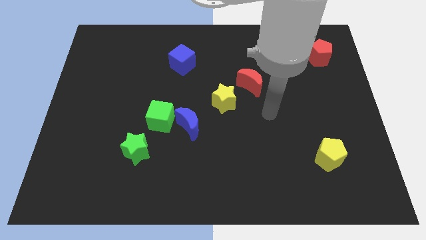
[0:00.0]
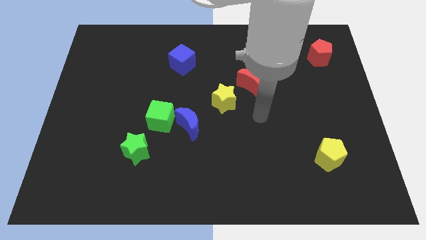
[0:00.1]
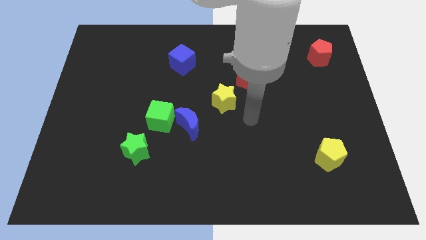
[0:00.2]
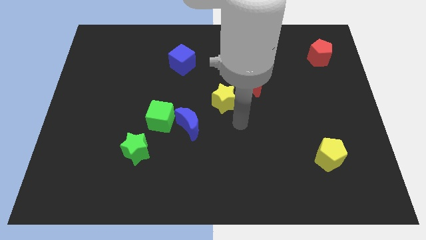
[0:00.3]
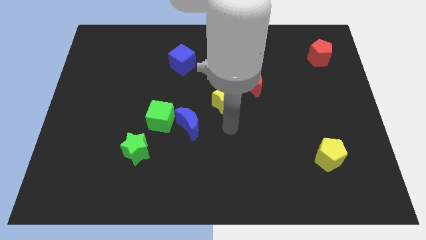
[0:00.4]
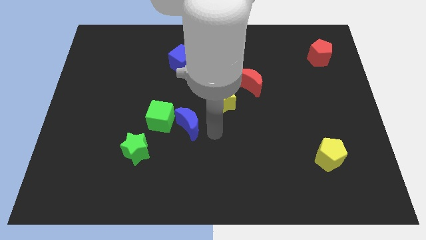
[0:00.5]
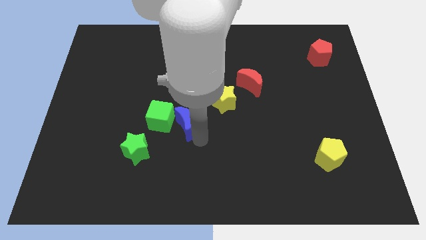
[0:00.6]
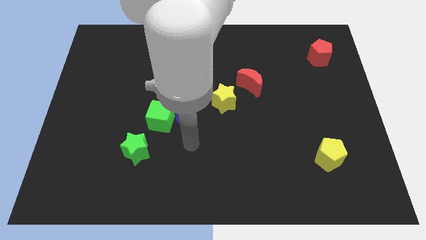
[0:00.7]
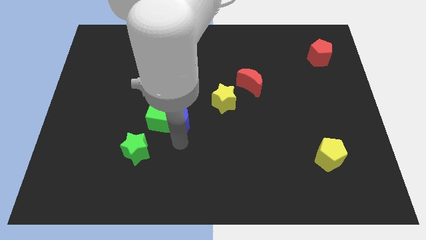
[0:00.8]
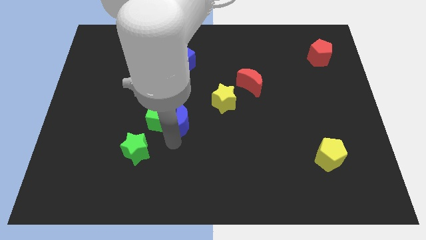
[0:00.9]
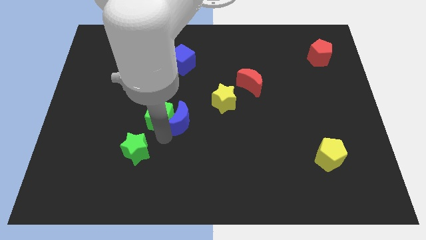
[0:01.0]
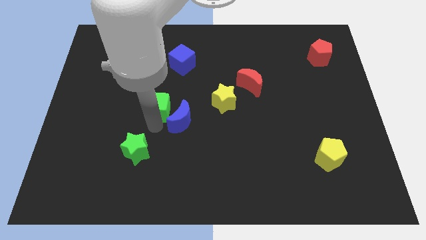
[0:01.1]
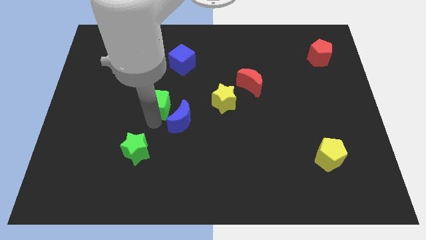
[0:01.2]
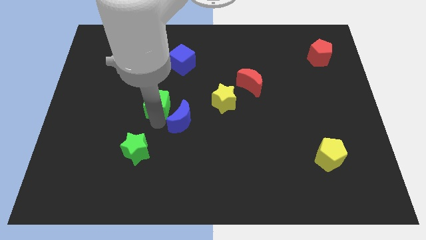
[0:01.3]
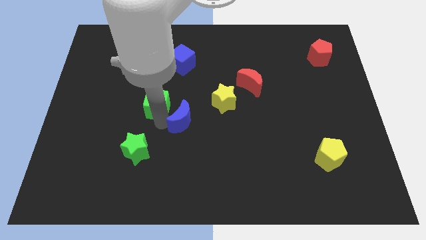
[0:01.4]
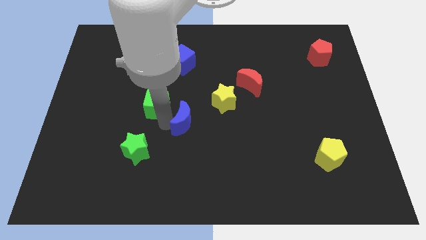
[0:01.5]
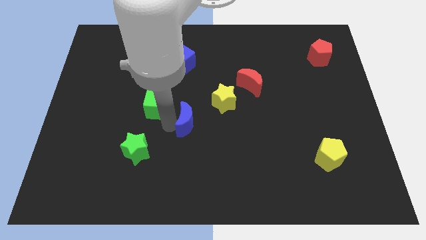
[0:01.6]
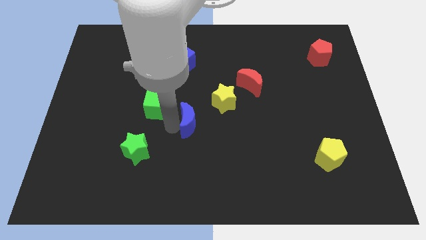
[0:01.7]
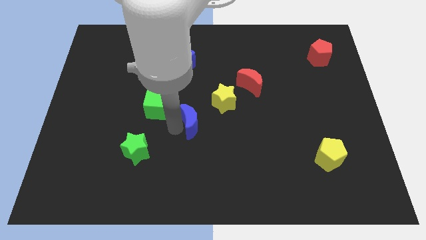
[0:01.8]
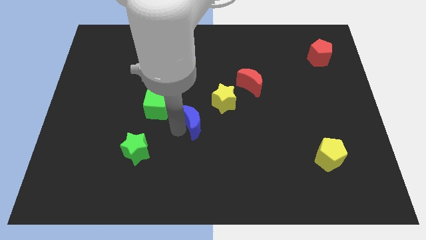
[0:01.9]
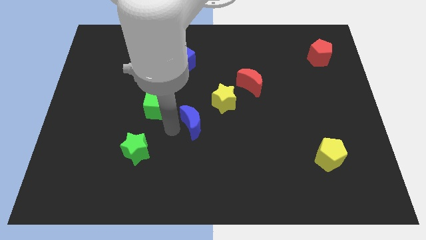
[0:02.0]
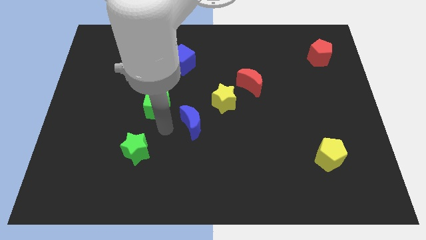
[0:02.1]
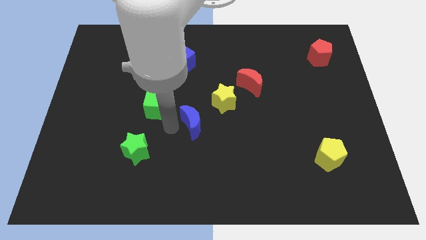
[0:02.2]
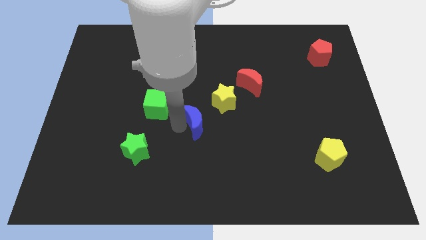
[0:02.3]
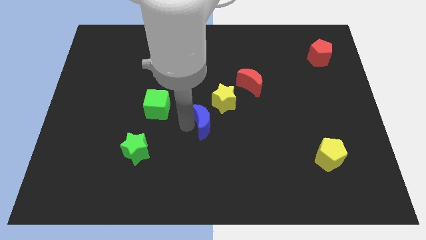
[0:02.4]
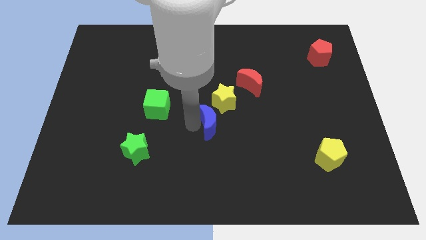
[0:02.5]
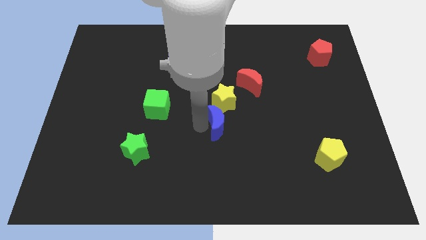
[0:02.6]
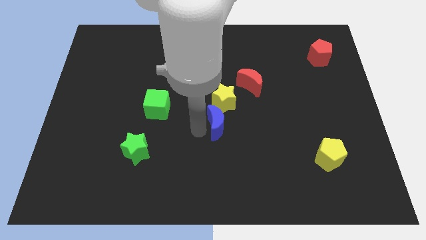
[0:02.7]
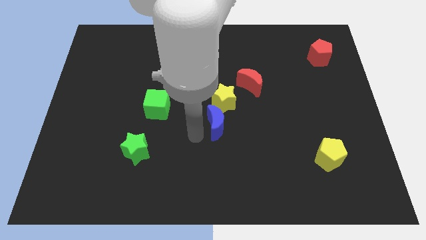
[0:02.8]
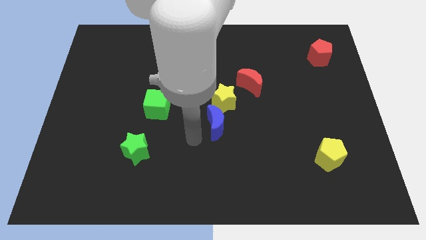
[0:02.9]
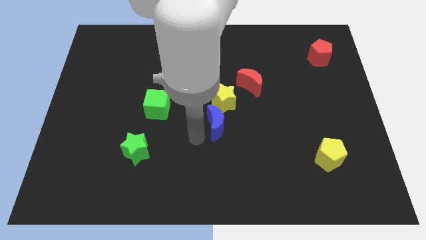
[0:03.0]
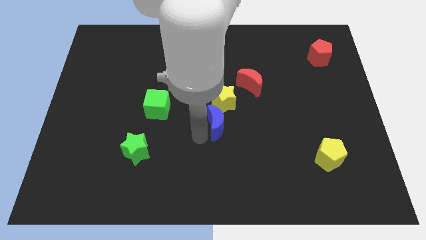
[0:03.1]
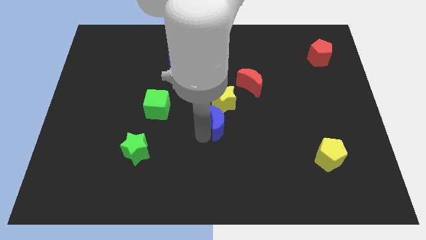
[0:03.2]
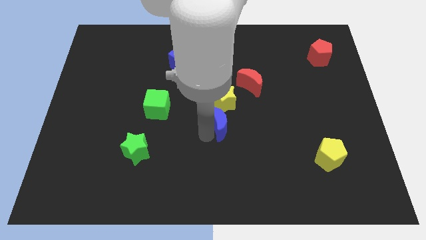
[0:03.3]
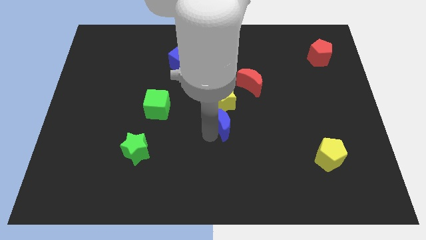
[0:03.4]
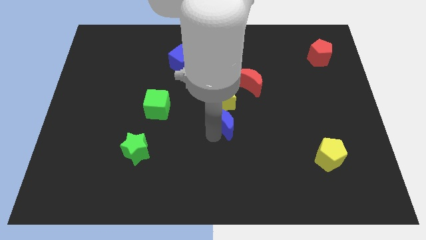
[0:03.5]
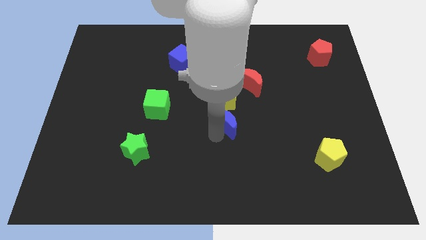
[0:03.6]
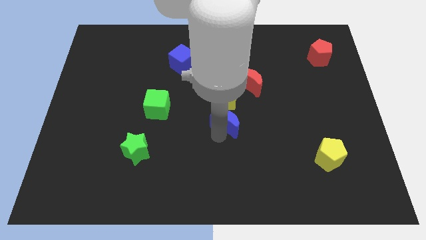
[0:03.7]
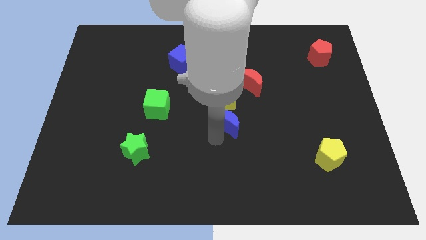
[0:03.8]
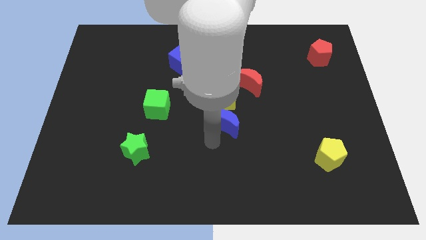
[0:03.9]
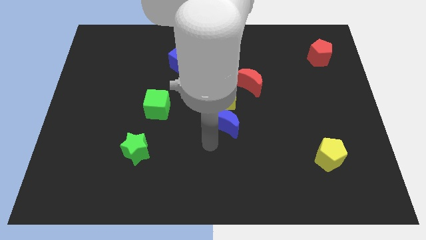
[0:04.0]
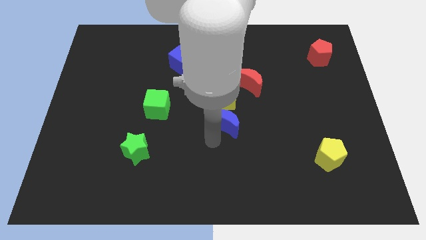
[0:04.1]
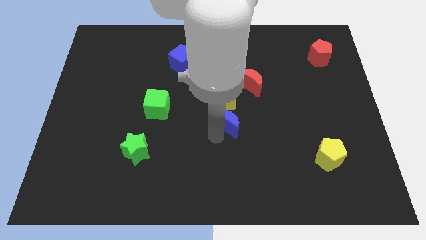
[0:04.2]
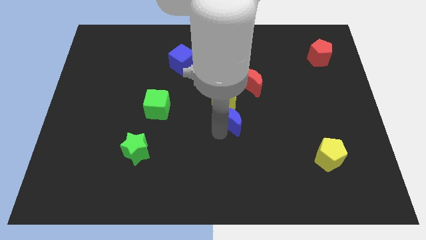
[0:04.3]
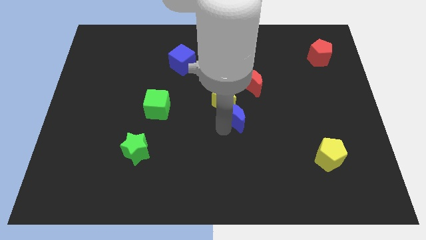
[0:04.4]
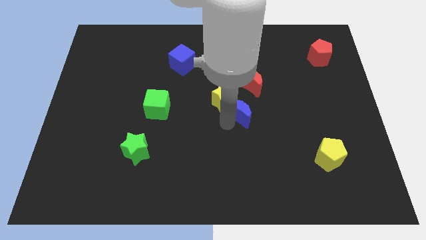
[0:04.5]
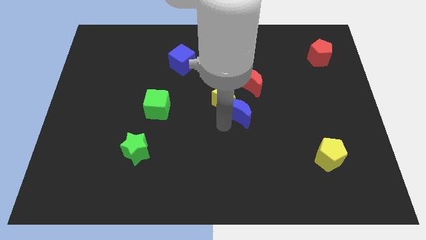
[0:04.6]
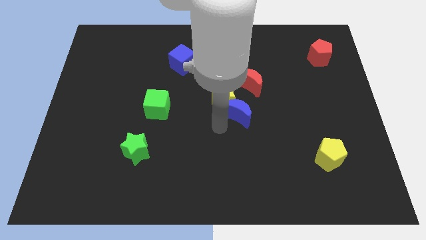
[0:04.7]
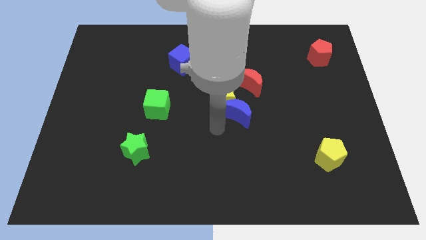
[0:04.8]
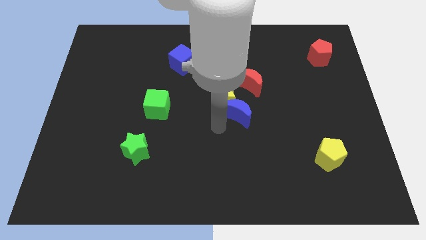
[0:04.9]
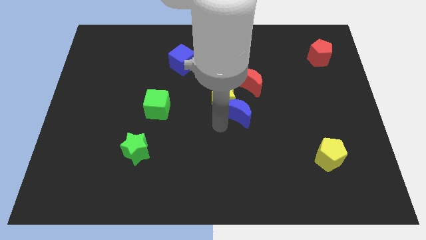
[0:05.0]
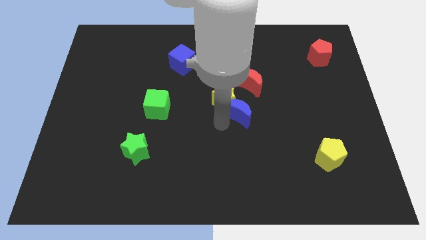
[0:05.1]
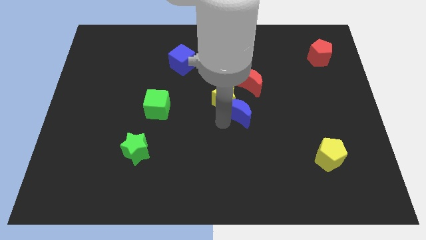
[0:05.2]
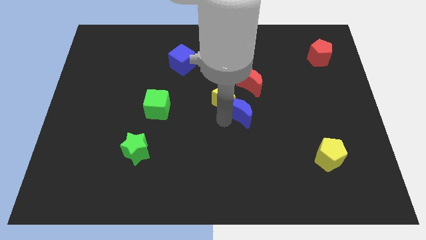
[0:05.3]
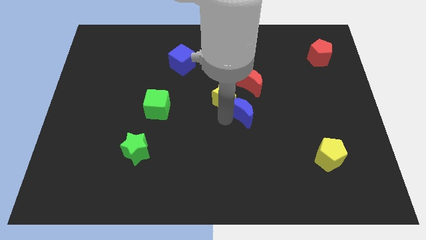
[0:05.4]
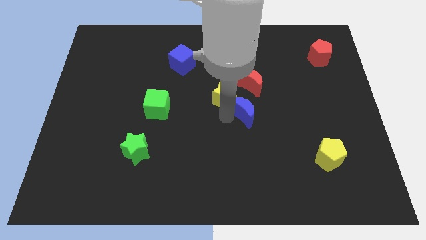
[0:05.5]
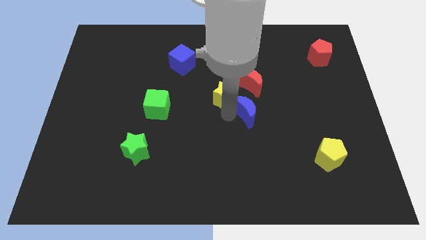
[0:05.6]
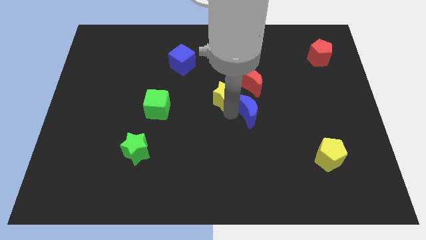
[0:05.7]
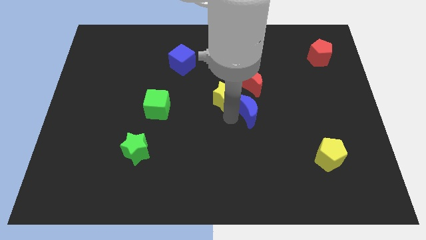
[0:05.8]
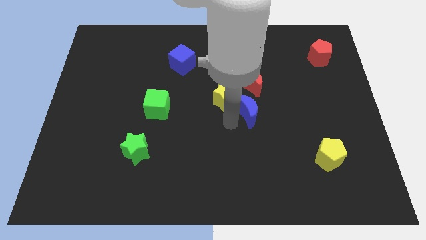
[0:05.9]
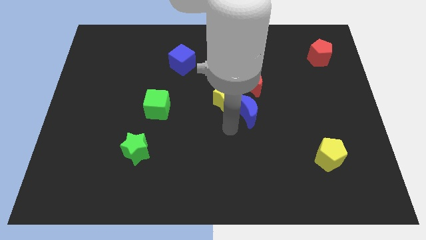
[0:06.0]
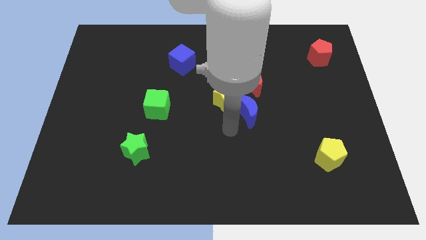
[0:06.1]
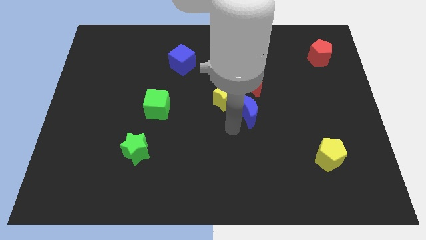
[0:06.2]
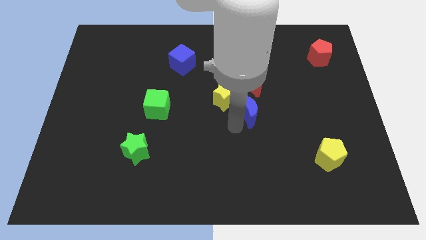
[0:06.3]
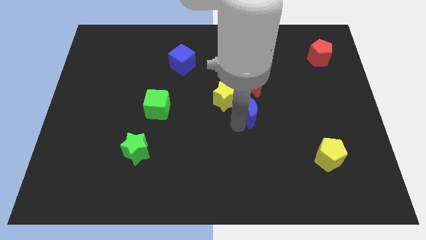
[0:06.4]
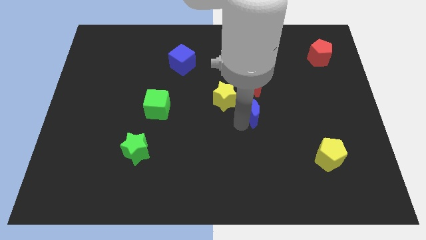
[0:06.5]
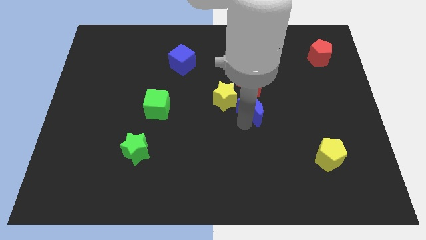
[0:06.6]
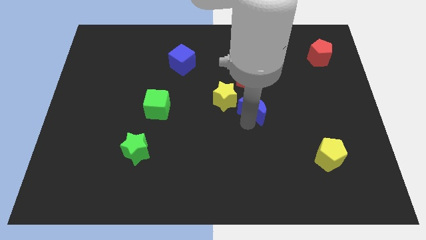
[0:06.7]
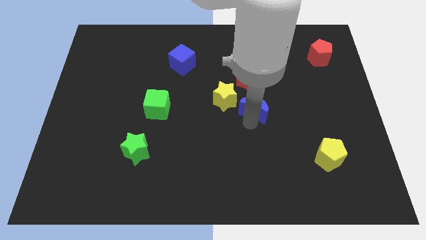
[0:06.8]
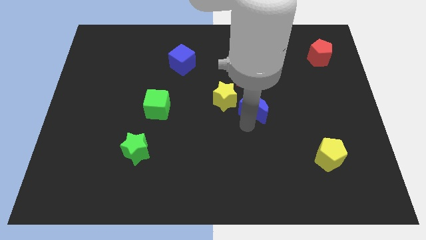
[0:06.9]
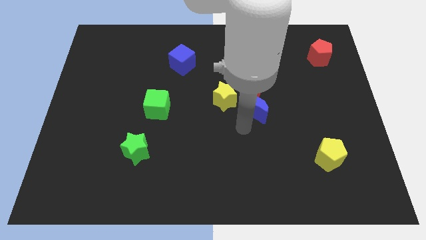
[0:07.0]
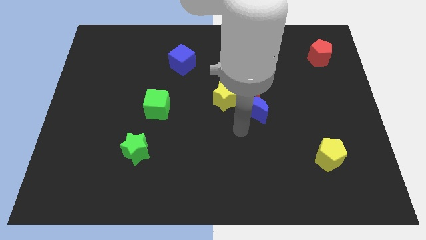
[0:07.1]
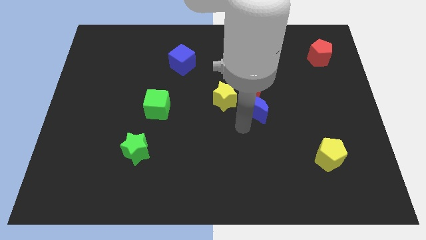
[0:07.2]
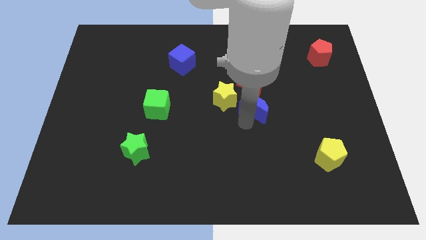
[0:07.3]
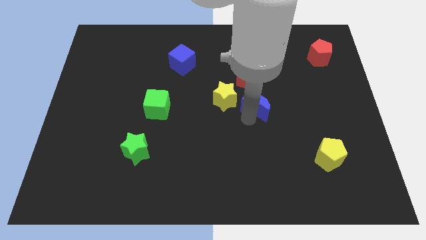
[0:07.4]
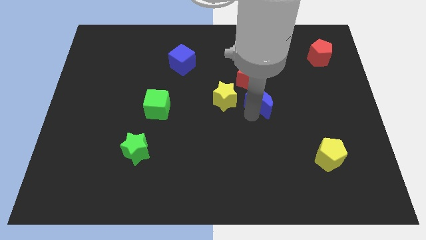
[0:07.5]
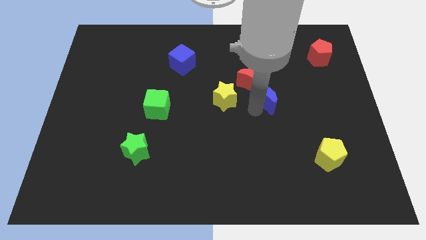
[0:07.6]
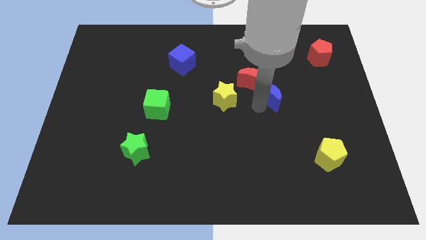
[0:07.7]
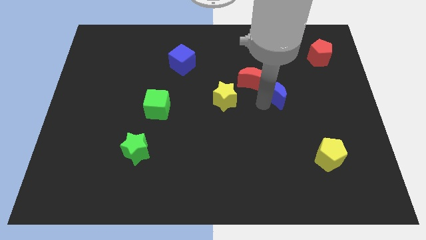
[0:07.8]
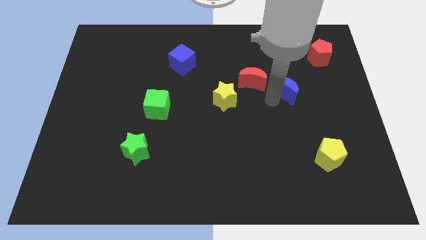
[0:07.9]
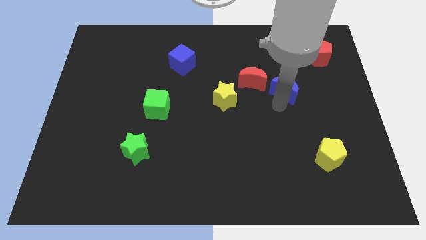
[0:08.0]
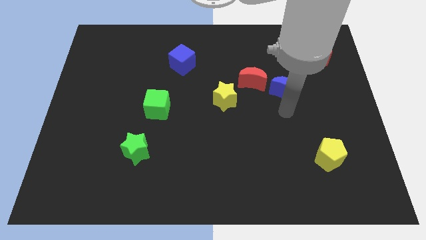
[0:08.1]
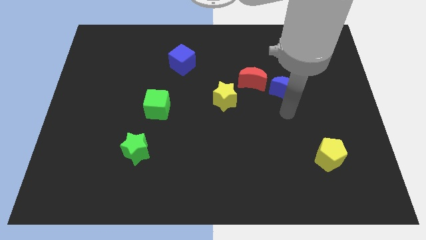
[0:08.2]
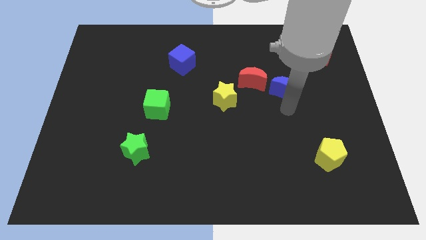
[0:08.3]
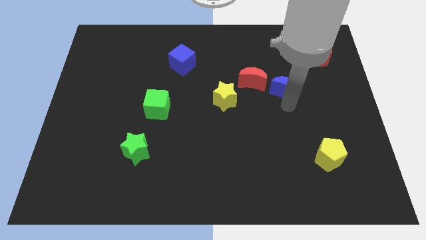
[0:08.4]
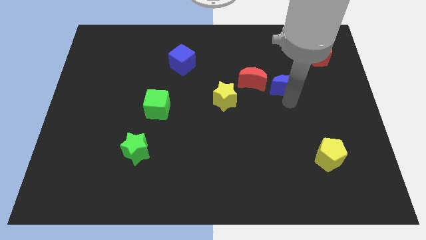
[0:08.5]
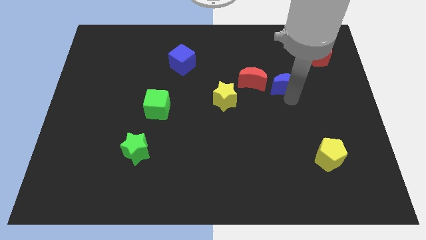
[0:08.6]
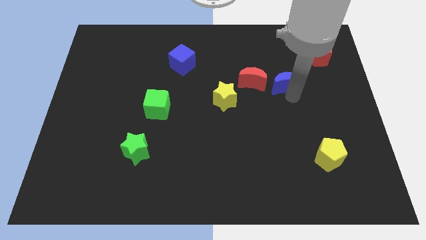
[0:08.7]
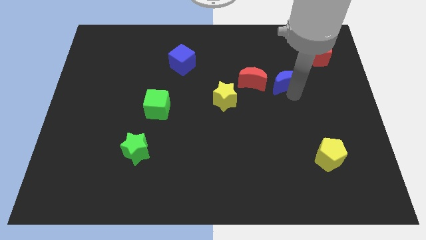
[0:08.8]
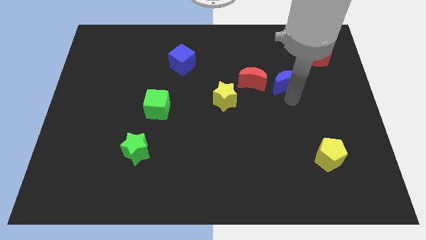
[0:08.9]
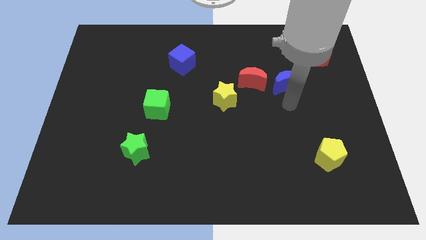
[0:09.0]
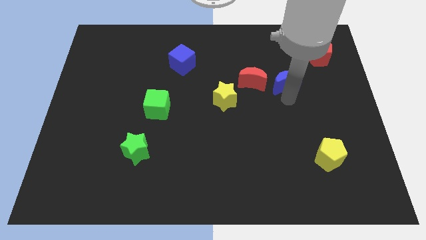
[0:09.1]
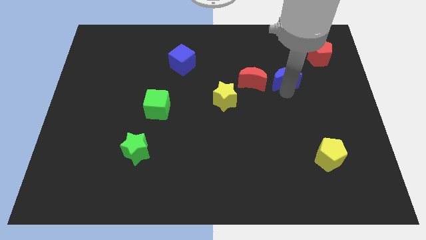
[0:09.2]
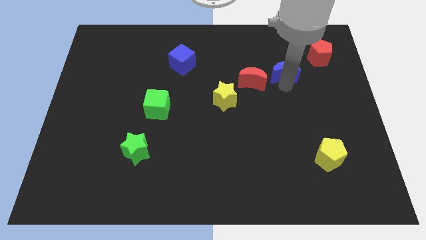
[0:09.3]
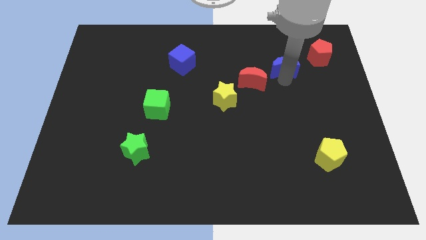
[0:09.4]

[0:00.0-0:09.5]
move the blue moon just left of the red pentagon
